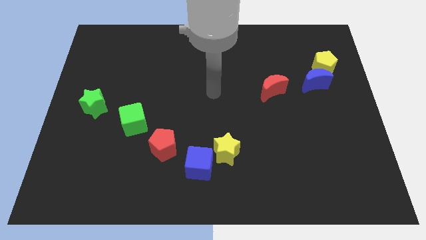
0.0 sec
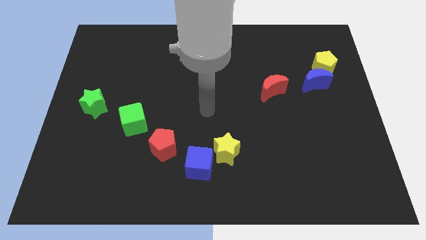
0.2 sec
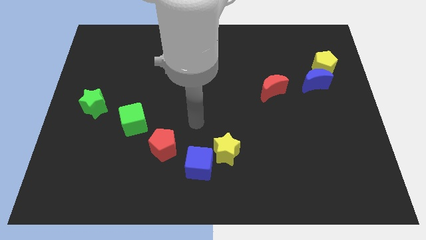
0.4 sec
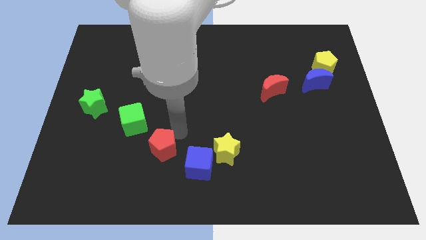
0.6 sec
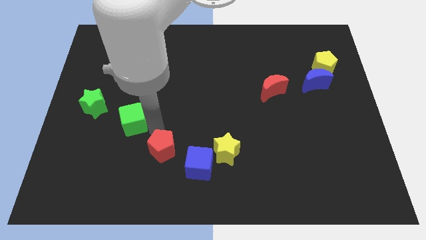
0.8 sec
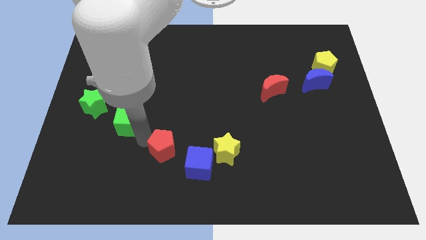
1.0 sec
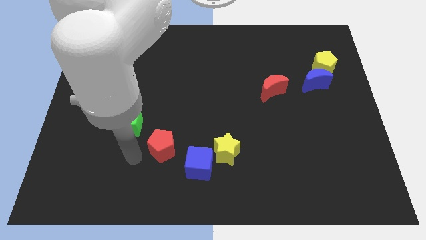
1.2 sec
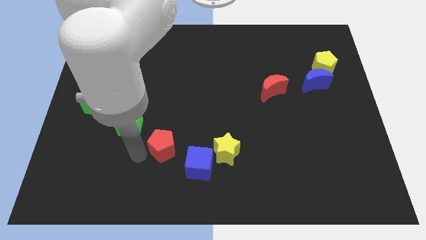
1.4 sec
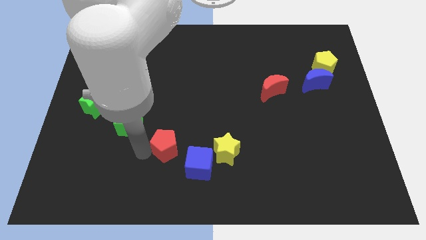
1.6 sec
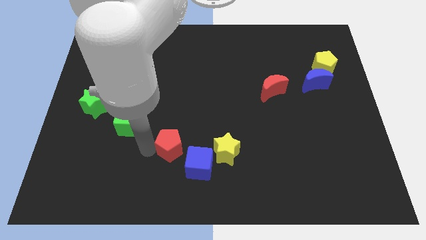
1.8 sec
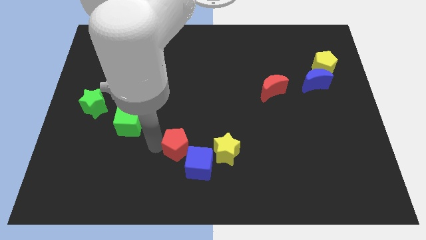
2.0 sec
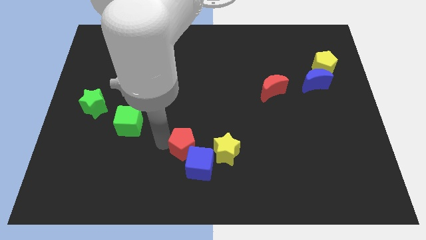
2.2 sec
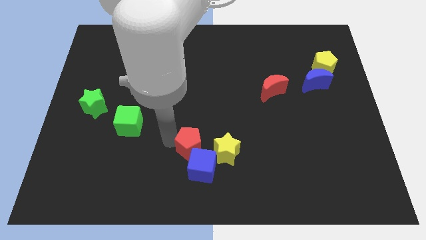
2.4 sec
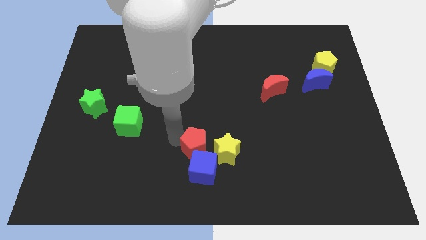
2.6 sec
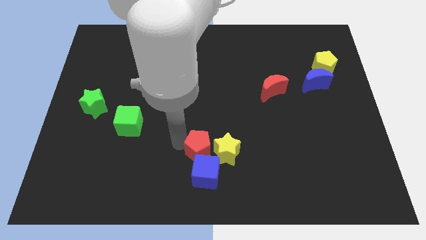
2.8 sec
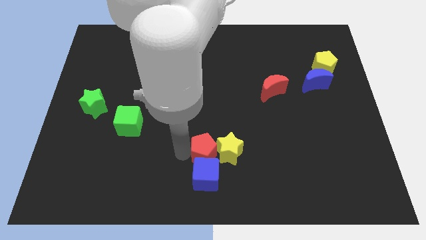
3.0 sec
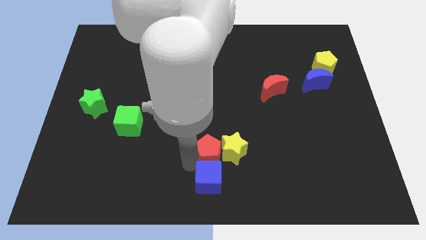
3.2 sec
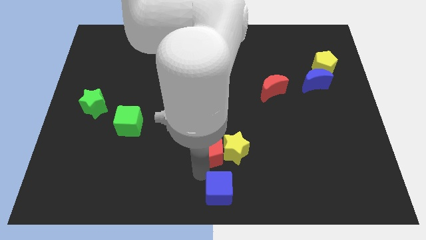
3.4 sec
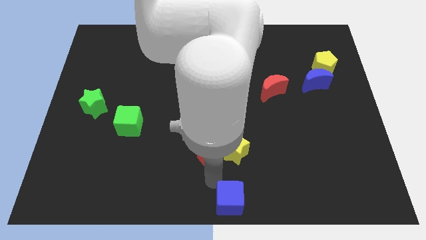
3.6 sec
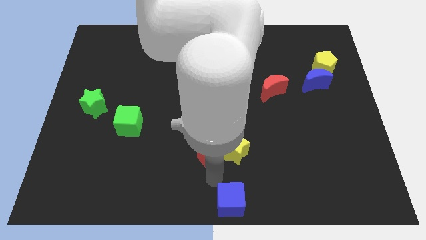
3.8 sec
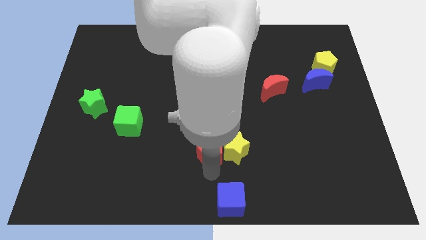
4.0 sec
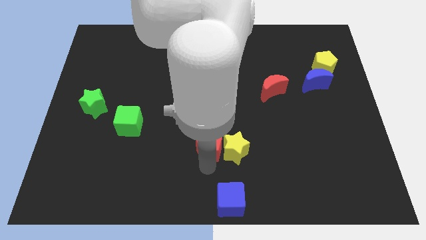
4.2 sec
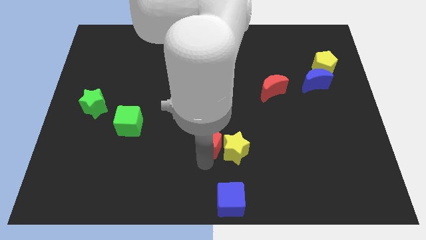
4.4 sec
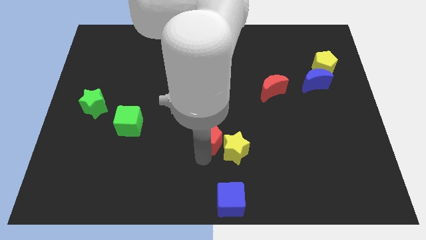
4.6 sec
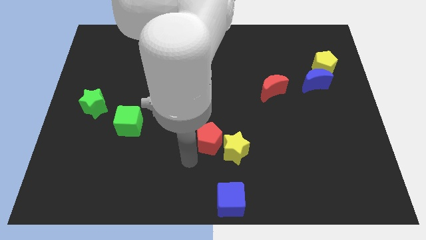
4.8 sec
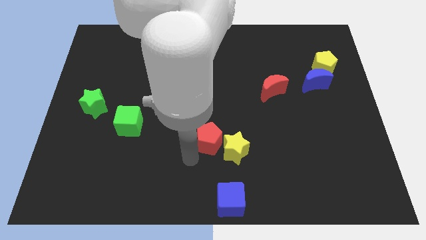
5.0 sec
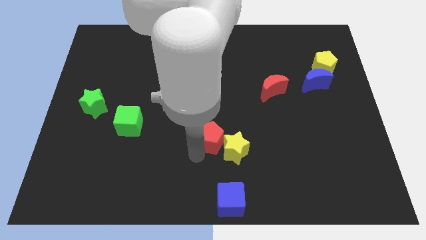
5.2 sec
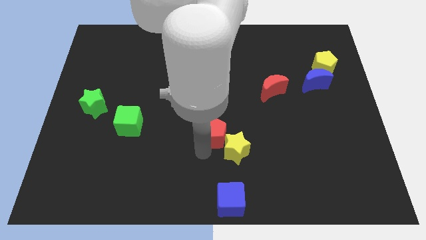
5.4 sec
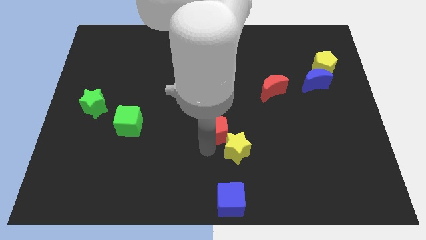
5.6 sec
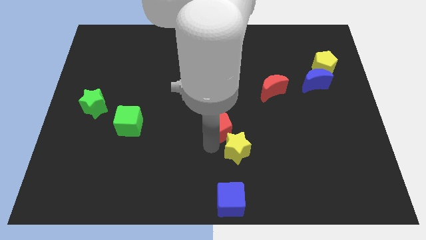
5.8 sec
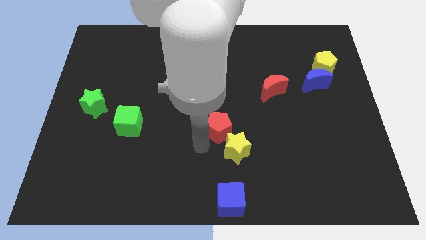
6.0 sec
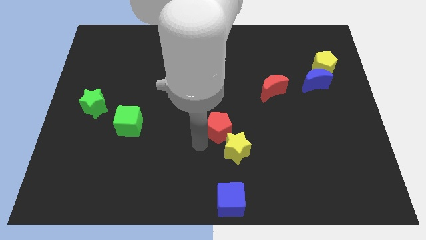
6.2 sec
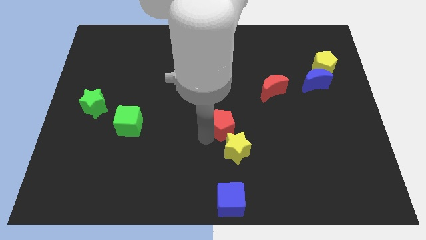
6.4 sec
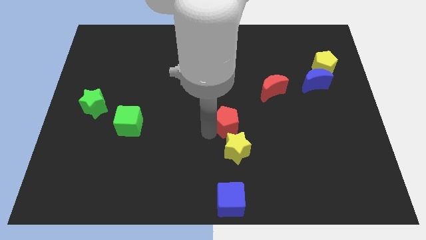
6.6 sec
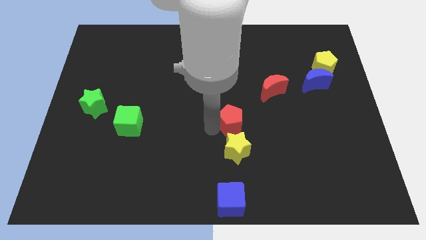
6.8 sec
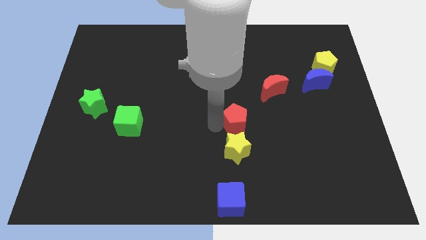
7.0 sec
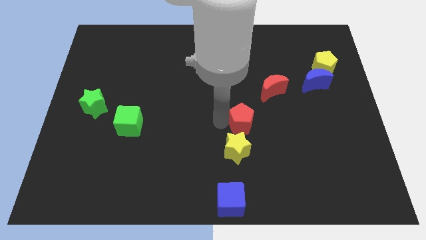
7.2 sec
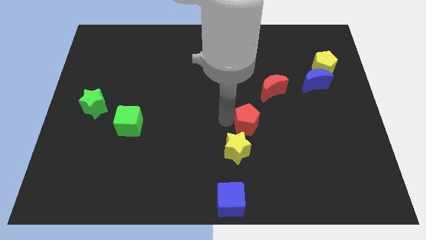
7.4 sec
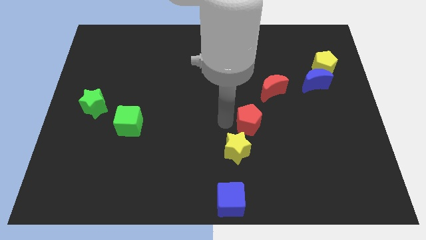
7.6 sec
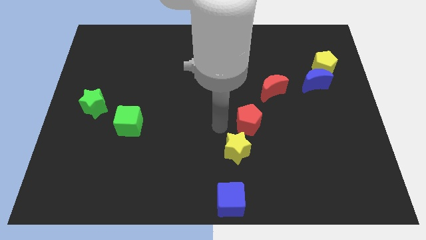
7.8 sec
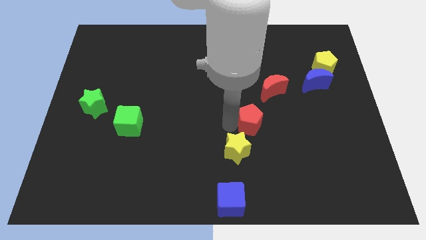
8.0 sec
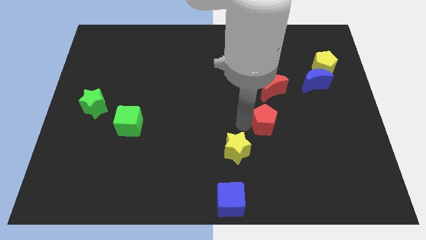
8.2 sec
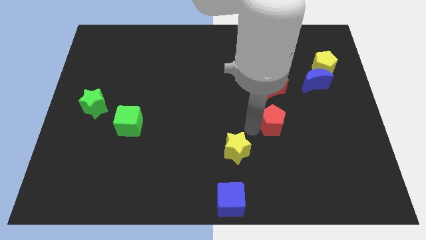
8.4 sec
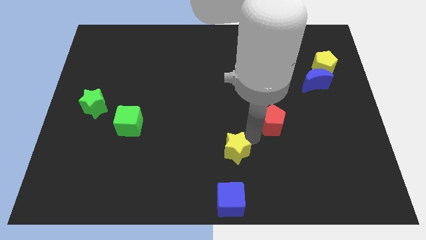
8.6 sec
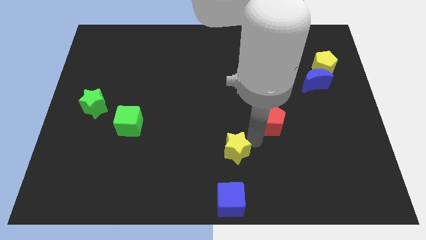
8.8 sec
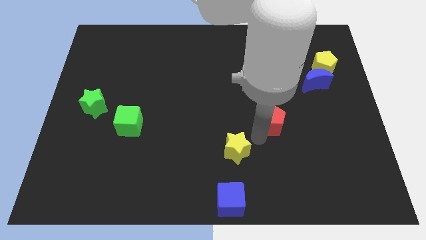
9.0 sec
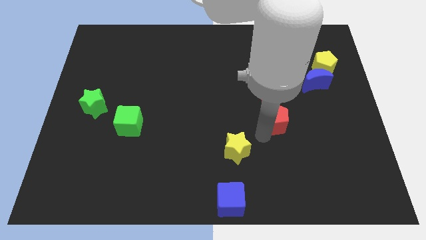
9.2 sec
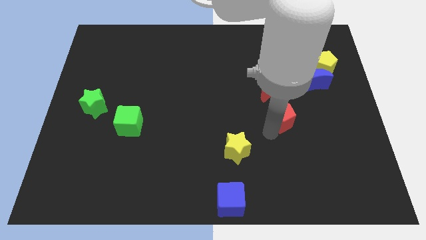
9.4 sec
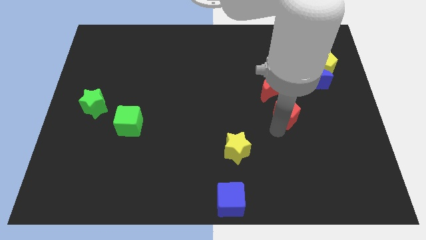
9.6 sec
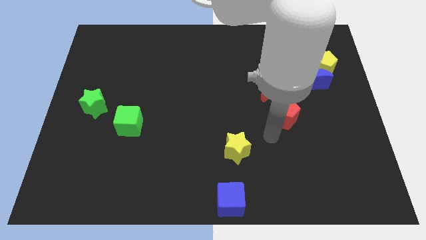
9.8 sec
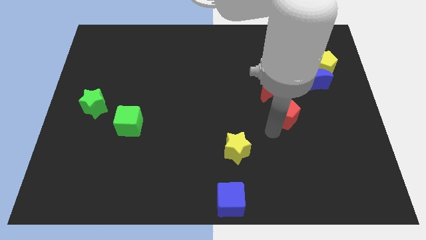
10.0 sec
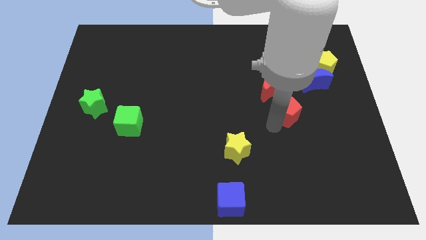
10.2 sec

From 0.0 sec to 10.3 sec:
put the red pentagon diagonally down and to the left of the blue moon
